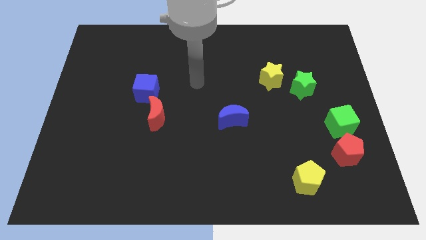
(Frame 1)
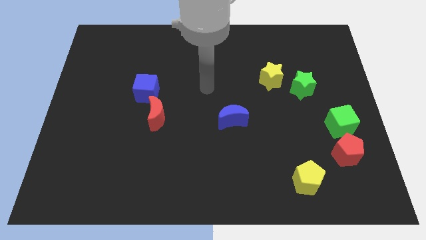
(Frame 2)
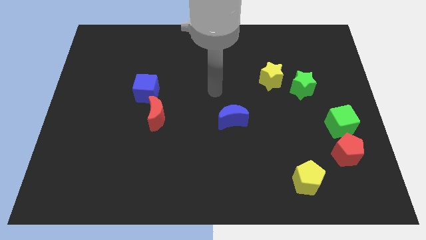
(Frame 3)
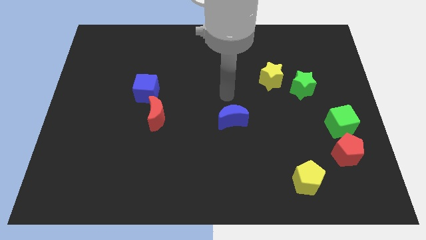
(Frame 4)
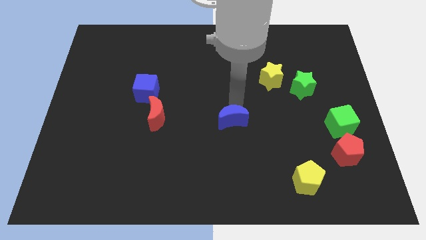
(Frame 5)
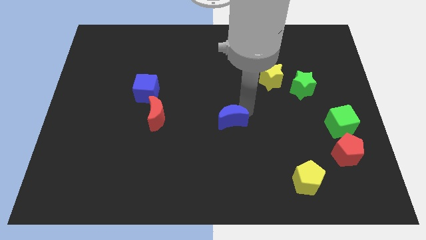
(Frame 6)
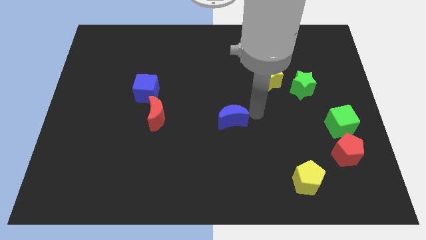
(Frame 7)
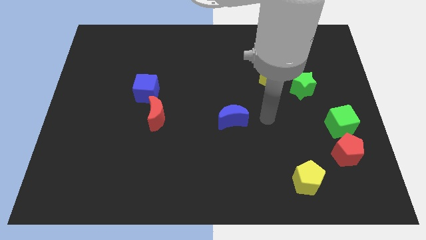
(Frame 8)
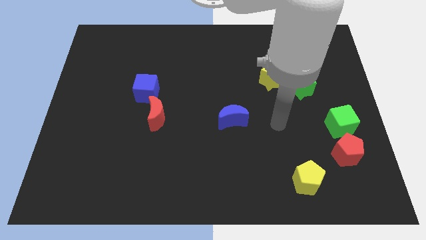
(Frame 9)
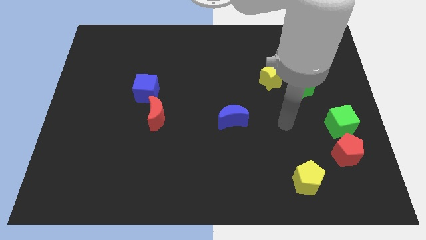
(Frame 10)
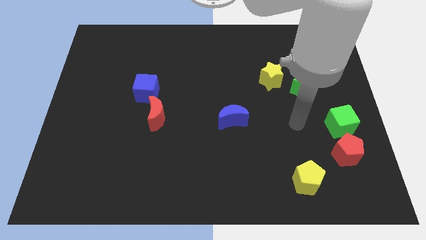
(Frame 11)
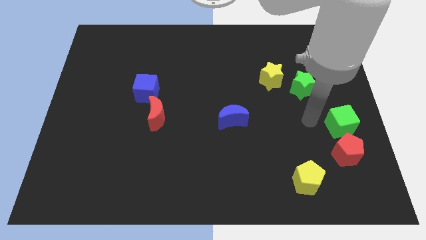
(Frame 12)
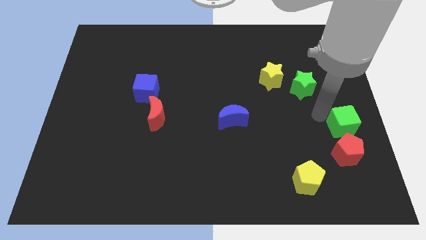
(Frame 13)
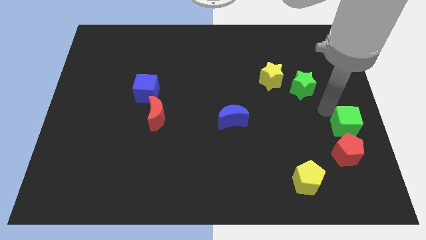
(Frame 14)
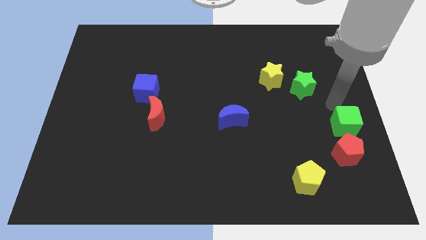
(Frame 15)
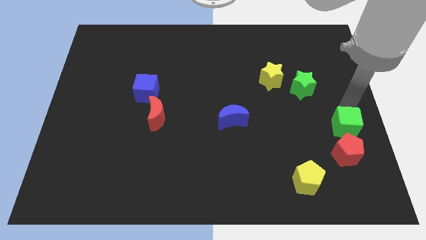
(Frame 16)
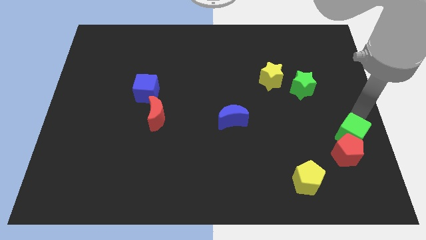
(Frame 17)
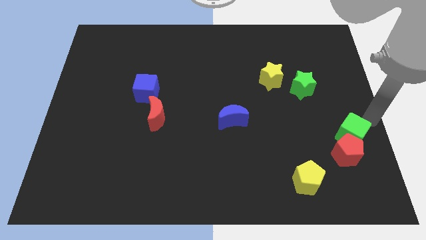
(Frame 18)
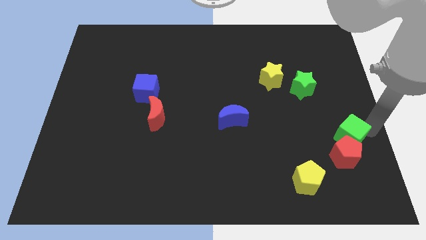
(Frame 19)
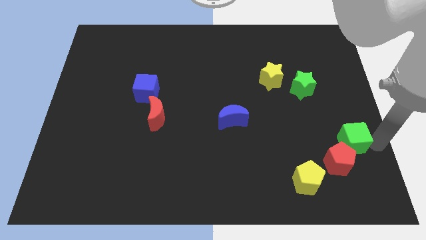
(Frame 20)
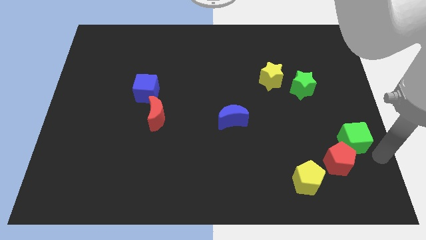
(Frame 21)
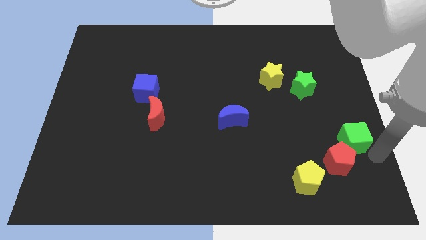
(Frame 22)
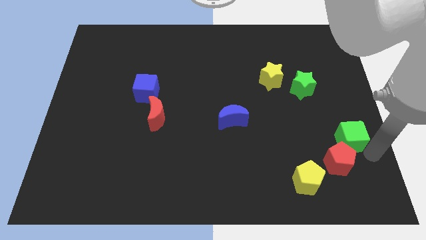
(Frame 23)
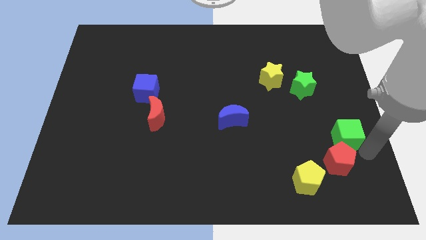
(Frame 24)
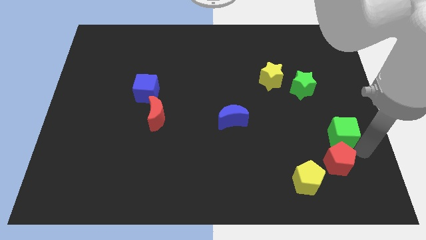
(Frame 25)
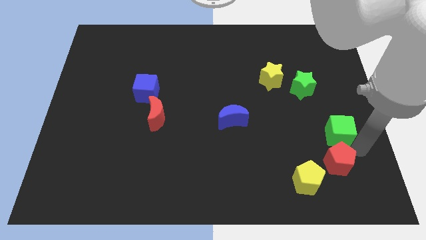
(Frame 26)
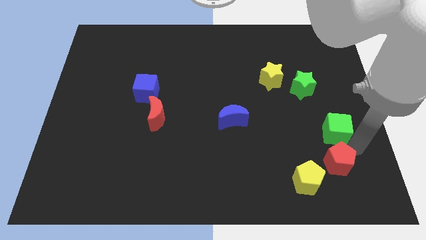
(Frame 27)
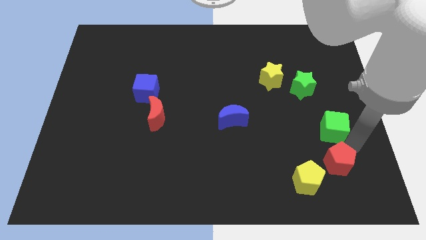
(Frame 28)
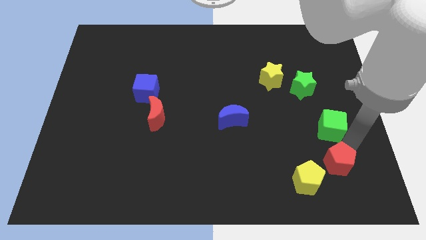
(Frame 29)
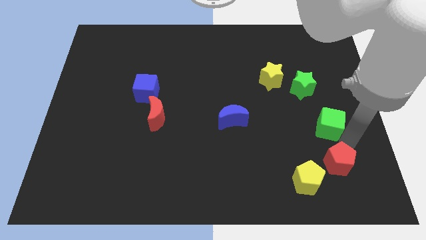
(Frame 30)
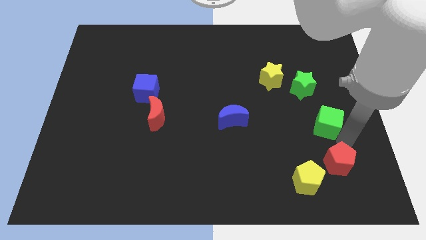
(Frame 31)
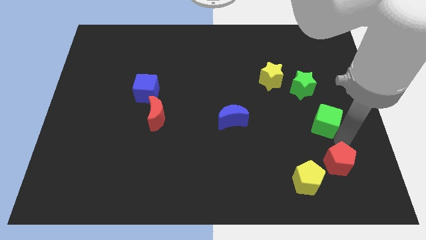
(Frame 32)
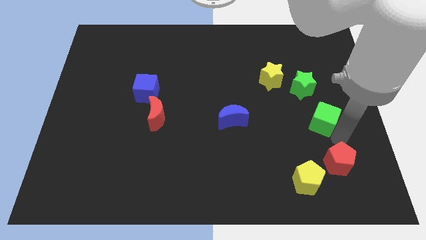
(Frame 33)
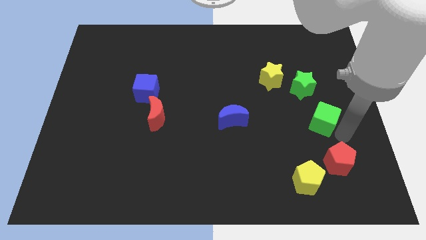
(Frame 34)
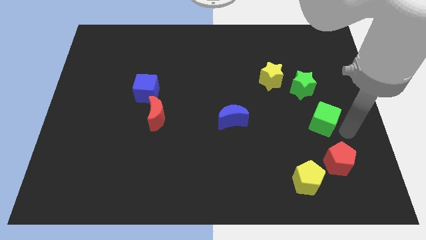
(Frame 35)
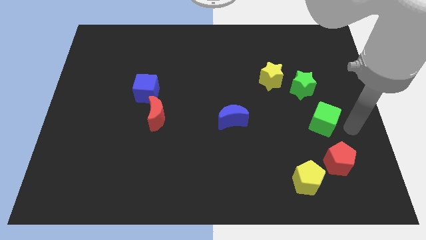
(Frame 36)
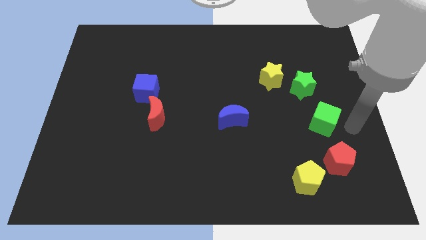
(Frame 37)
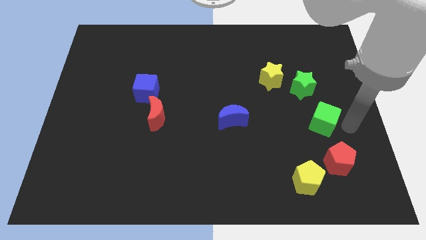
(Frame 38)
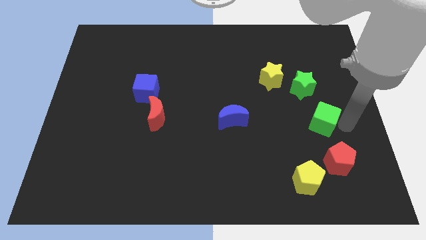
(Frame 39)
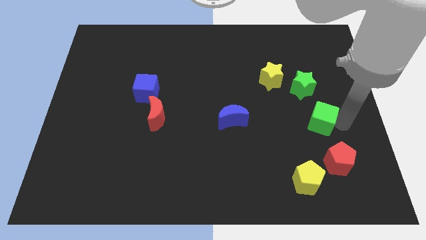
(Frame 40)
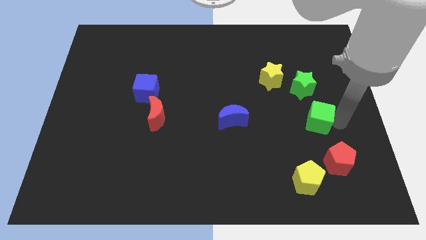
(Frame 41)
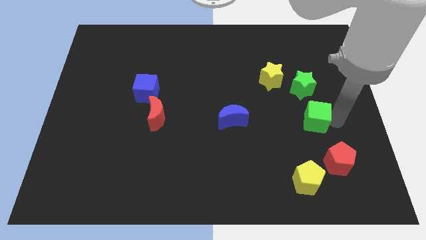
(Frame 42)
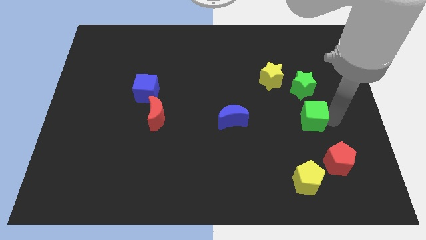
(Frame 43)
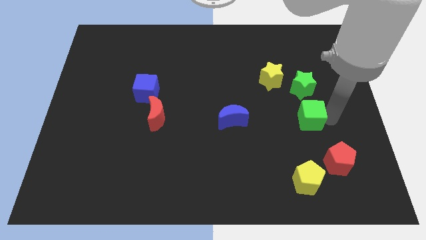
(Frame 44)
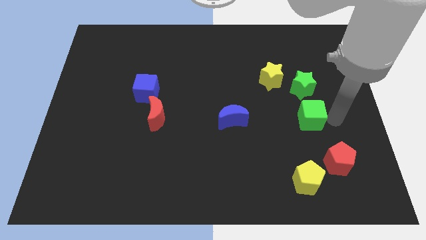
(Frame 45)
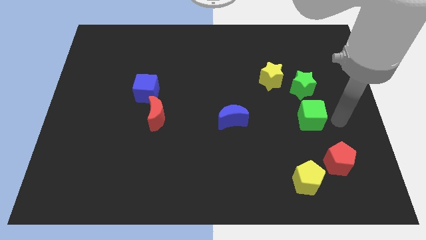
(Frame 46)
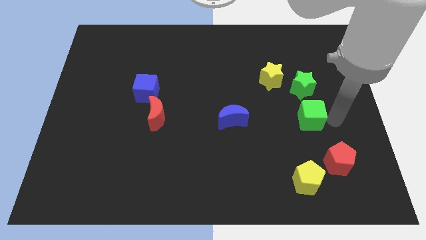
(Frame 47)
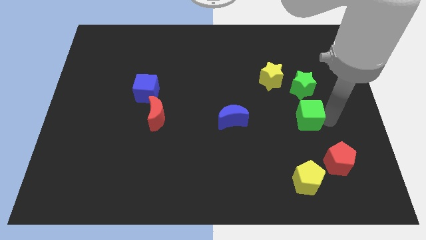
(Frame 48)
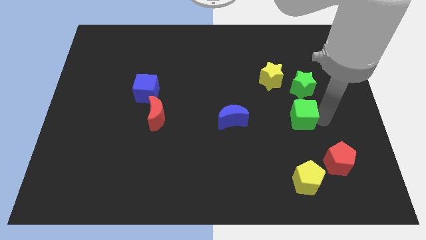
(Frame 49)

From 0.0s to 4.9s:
move the green cube to the right of the blue moon

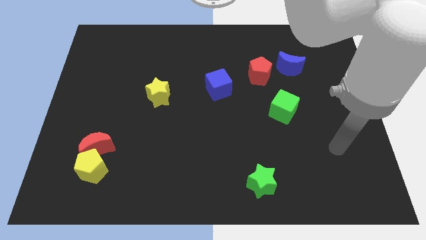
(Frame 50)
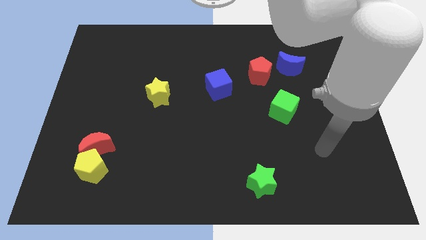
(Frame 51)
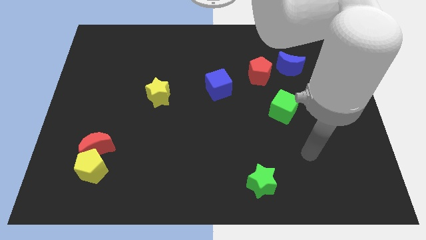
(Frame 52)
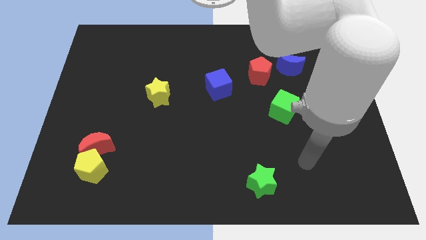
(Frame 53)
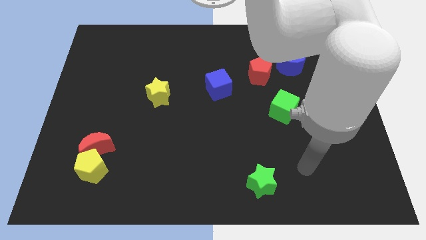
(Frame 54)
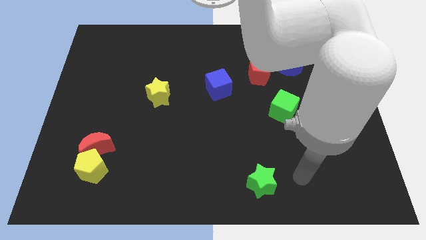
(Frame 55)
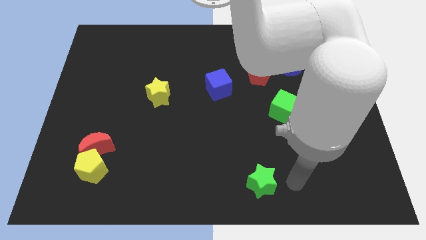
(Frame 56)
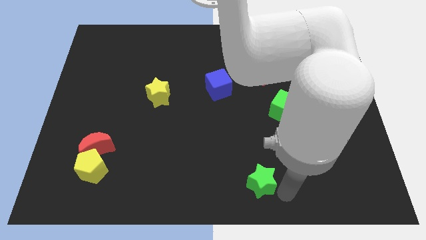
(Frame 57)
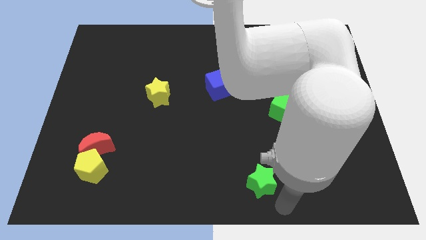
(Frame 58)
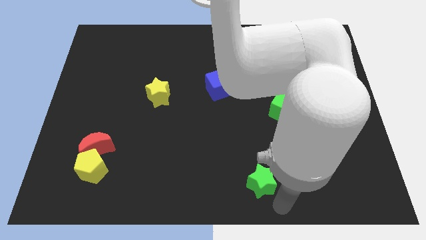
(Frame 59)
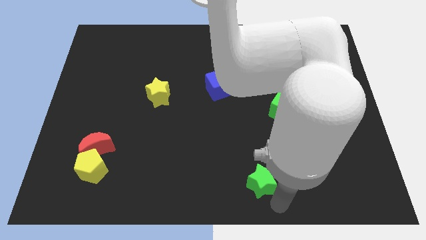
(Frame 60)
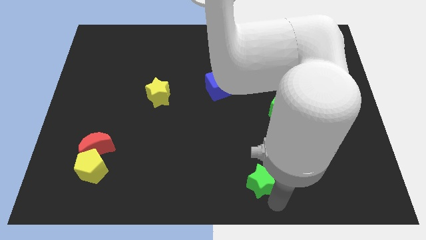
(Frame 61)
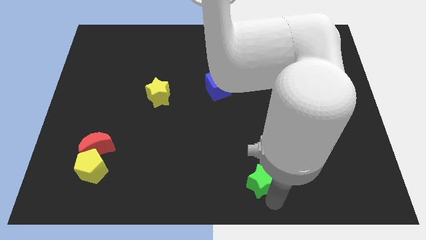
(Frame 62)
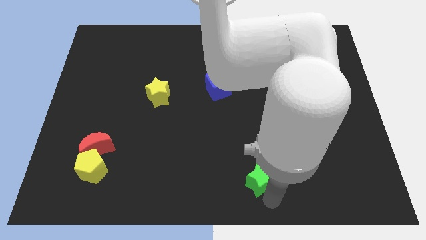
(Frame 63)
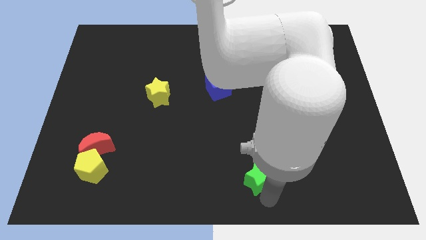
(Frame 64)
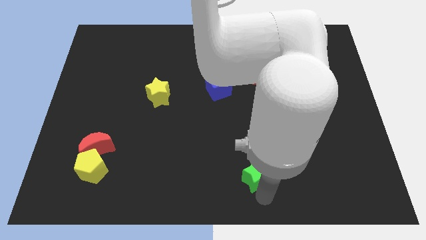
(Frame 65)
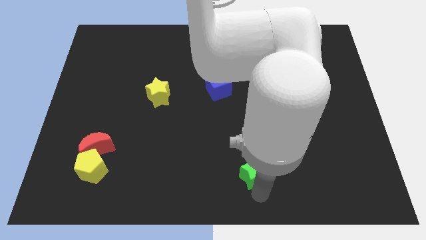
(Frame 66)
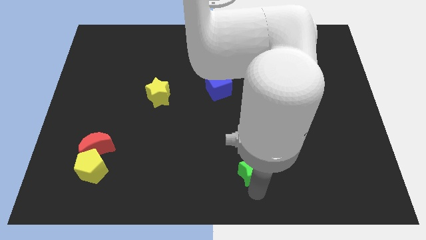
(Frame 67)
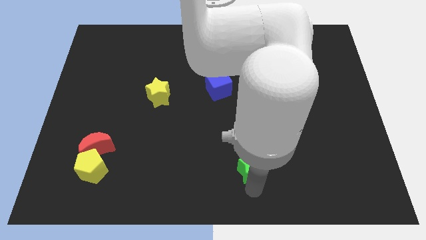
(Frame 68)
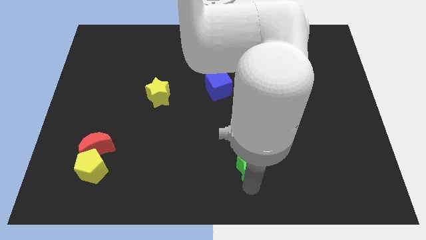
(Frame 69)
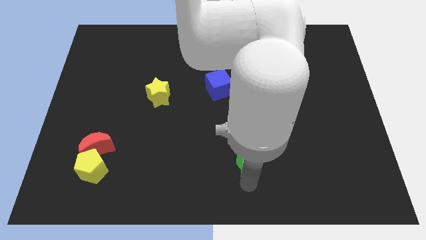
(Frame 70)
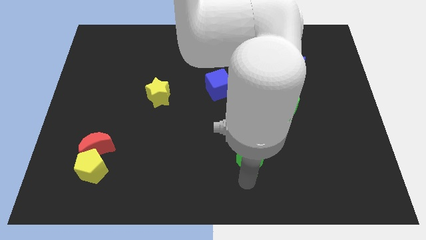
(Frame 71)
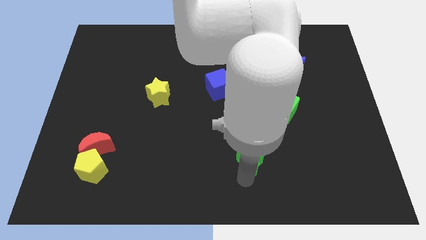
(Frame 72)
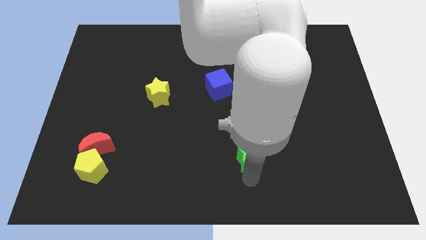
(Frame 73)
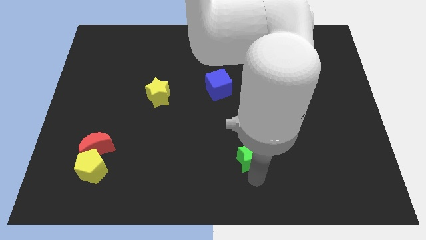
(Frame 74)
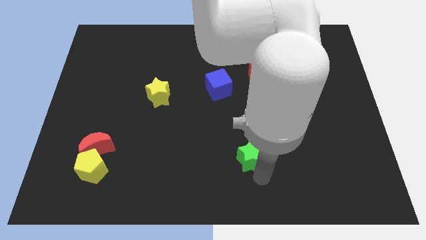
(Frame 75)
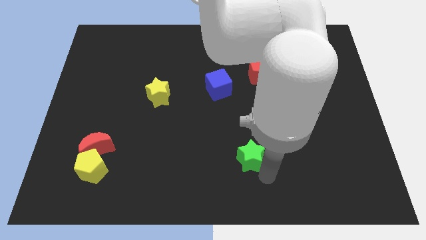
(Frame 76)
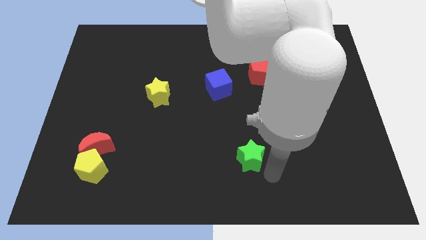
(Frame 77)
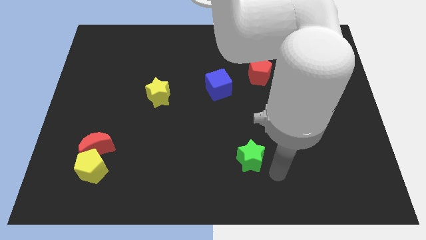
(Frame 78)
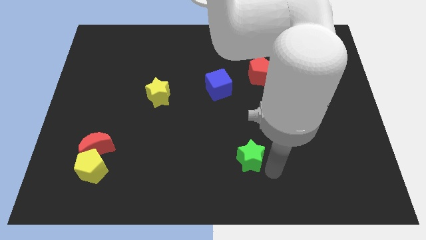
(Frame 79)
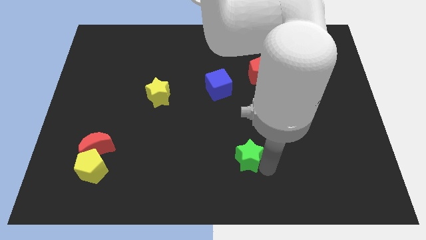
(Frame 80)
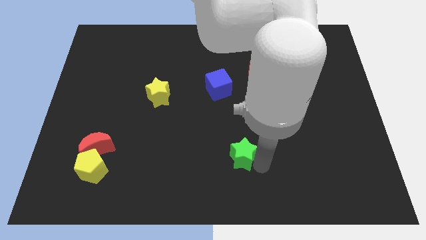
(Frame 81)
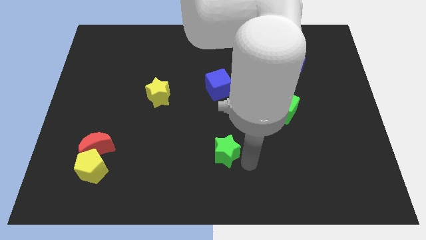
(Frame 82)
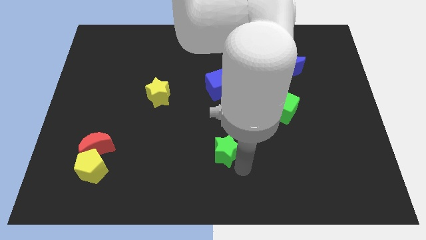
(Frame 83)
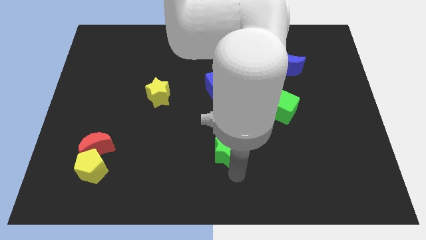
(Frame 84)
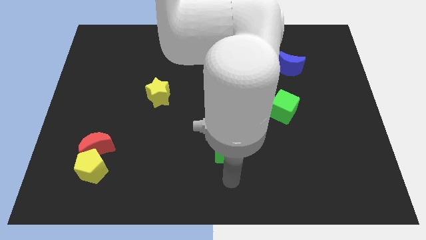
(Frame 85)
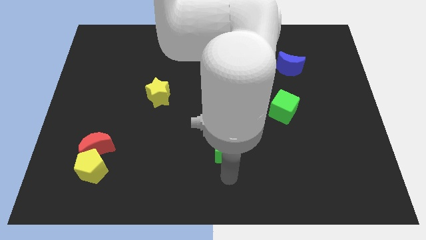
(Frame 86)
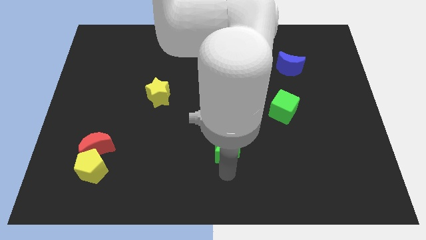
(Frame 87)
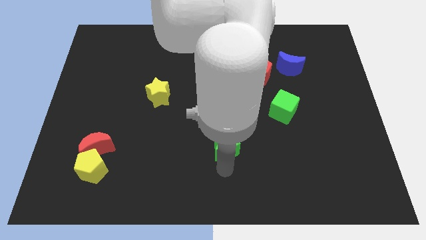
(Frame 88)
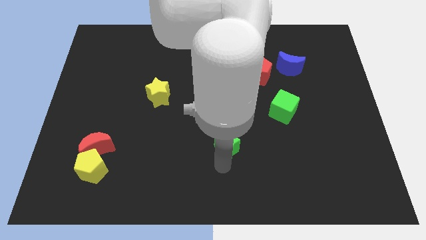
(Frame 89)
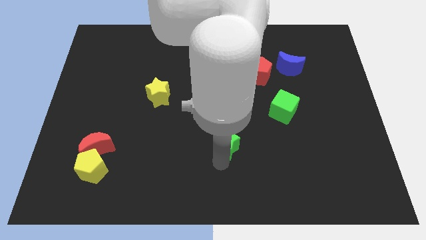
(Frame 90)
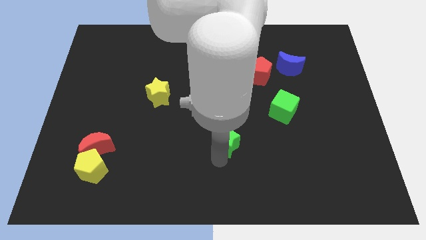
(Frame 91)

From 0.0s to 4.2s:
put the green star below the blue cube
